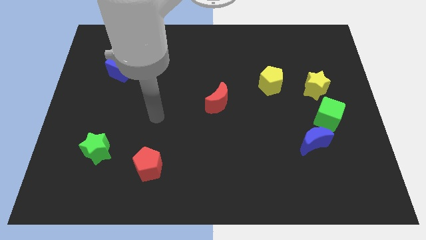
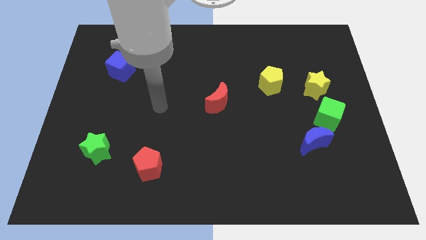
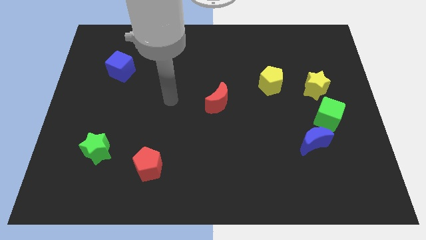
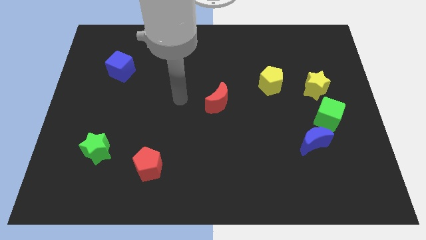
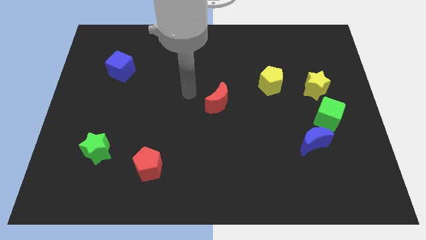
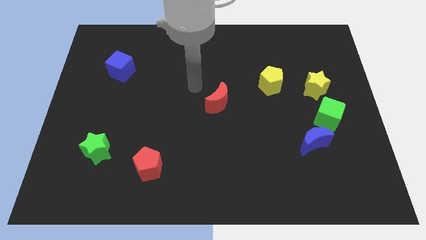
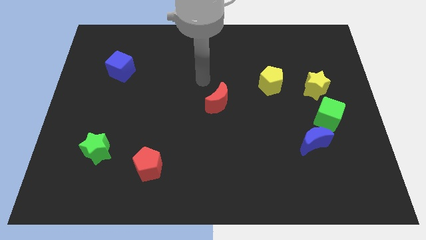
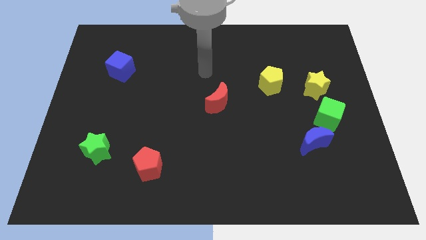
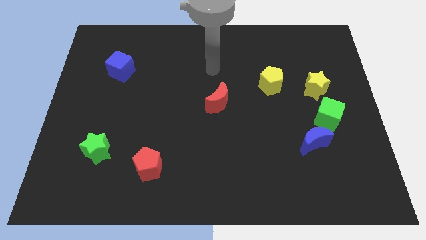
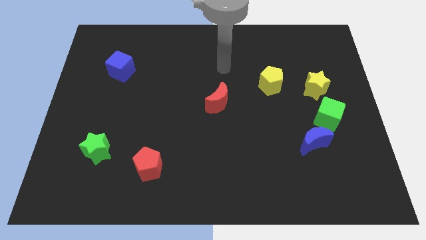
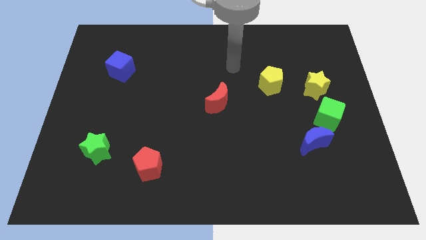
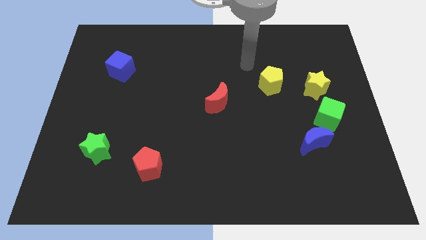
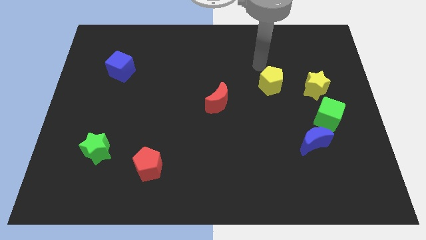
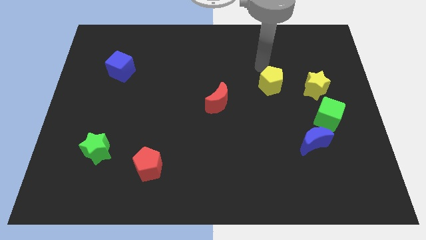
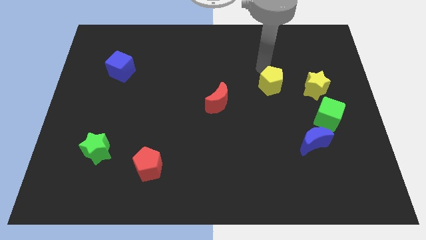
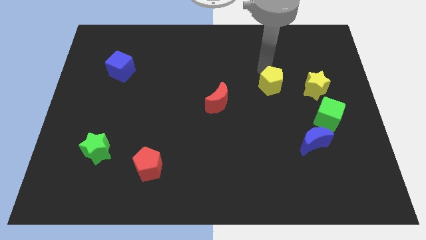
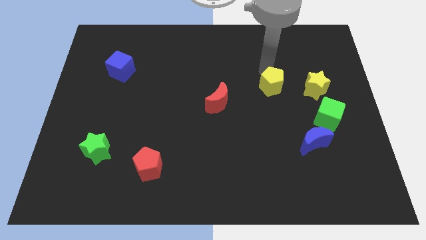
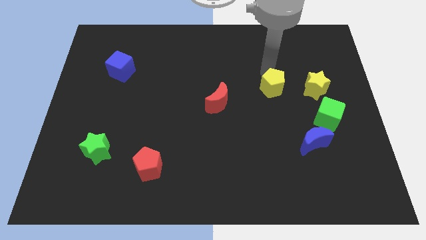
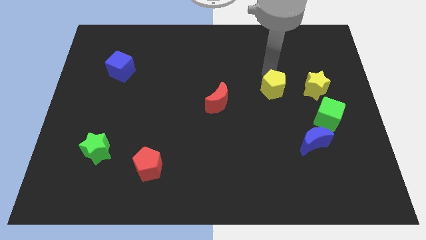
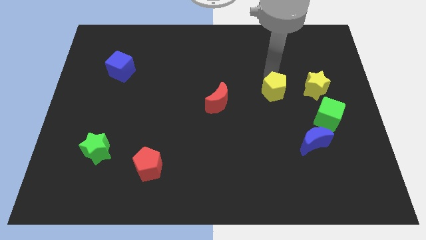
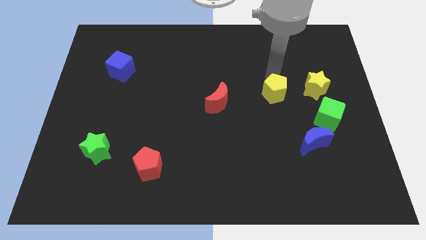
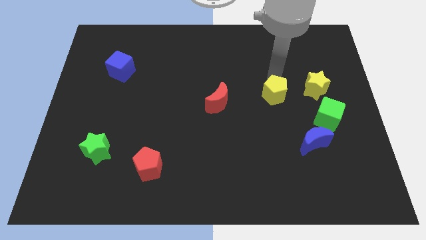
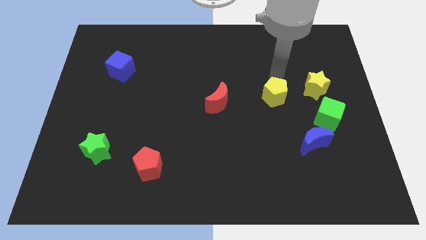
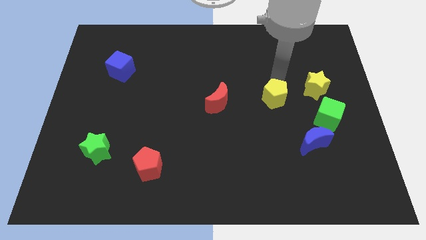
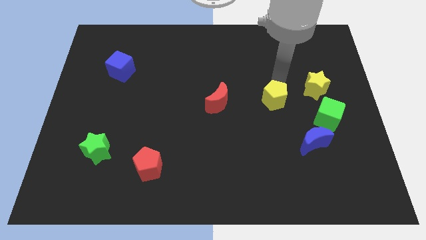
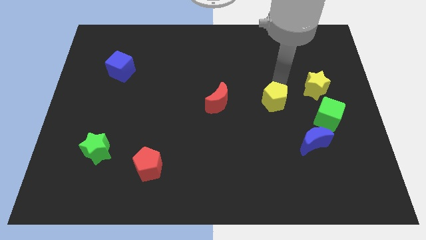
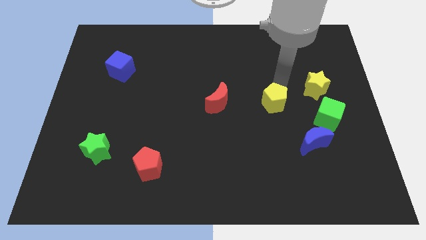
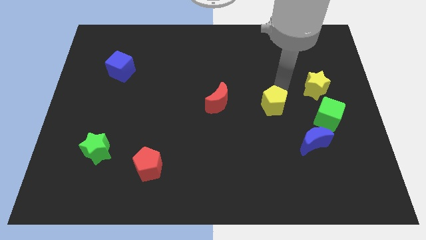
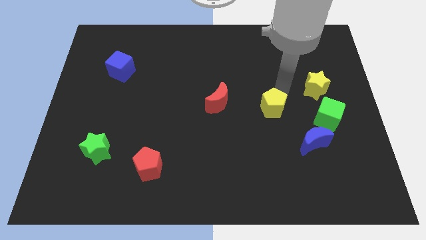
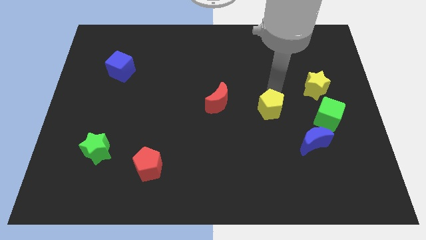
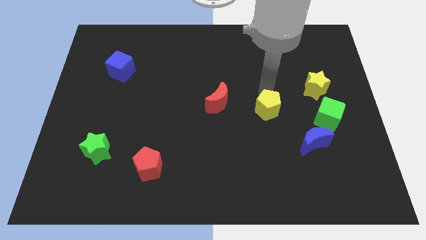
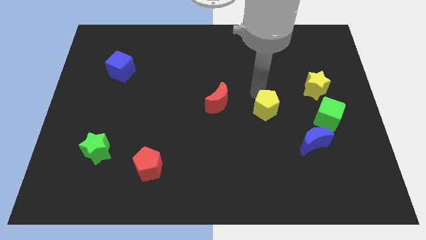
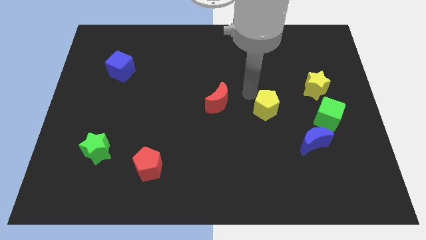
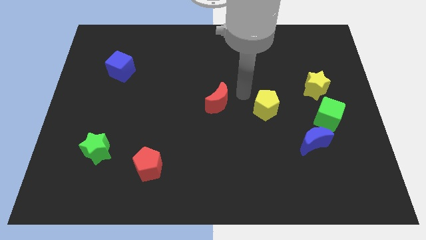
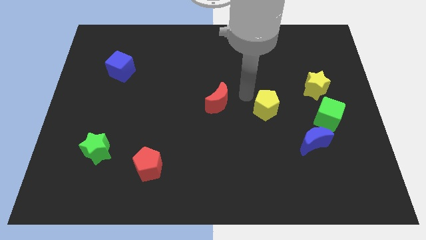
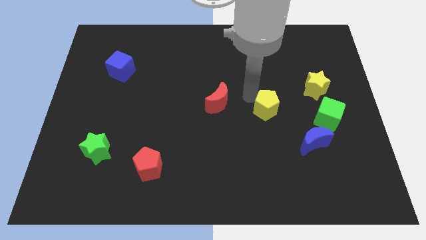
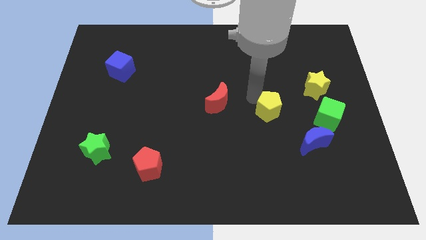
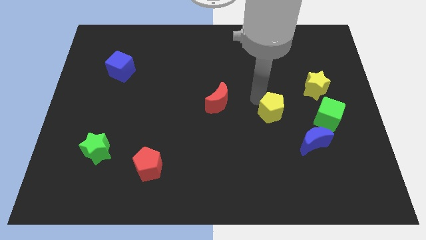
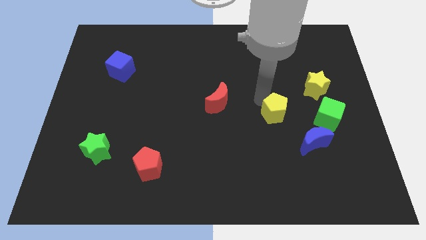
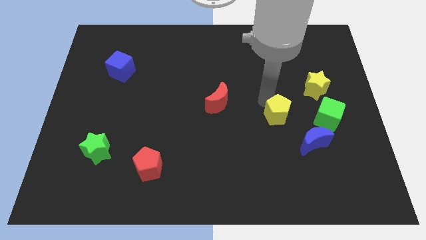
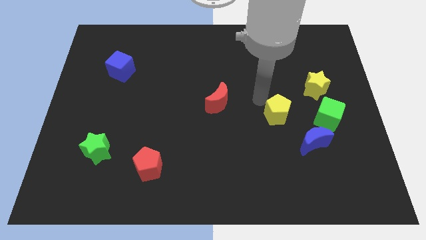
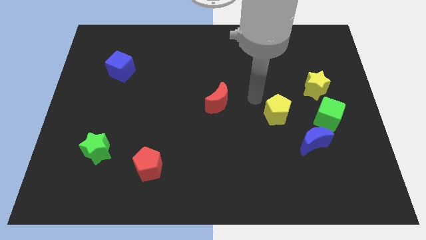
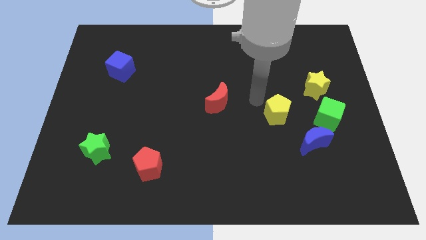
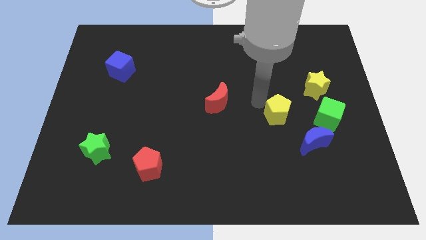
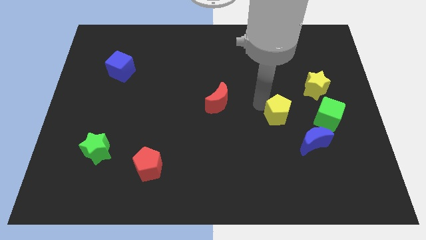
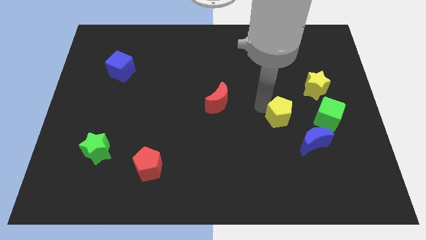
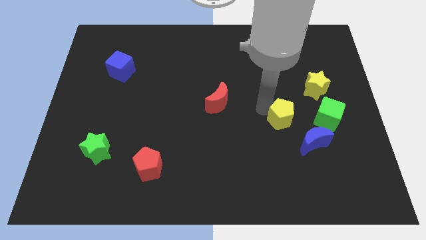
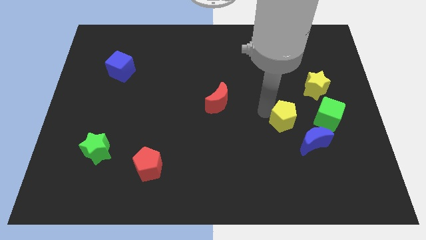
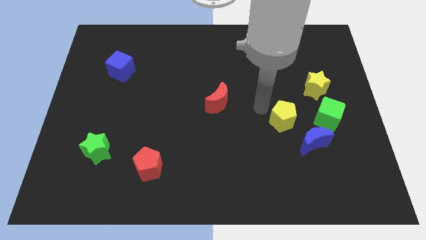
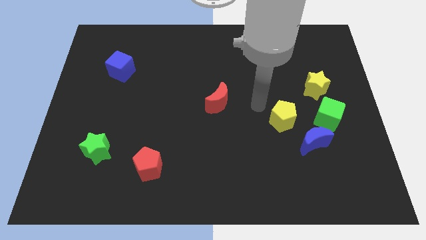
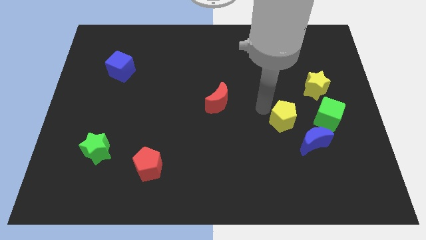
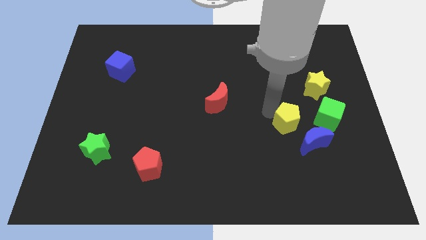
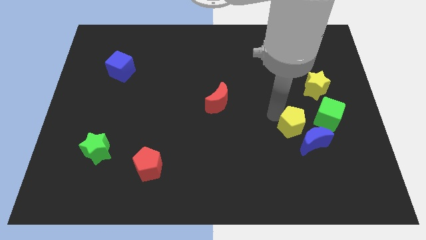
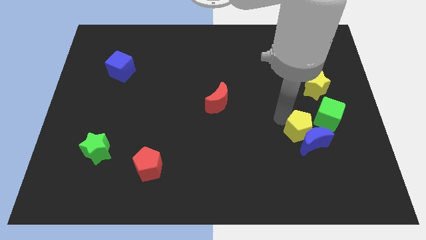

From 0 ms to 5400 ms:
push the yellow pentagon towards the blue moon

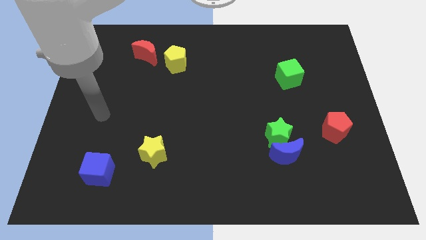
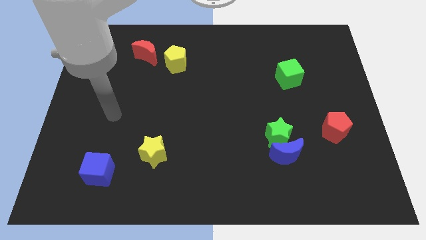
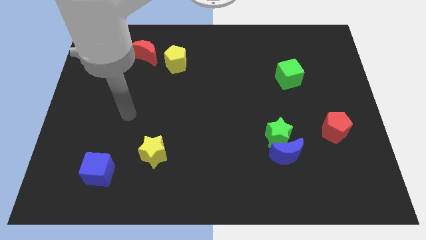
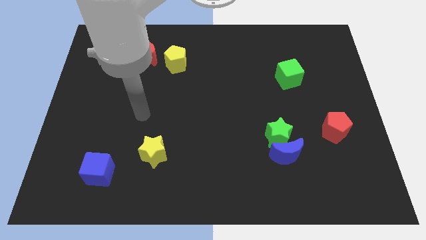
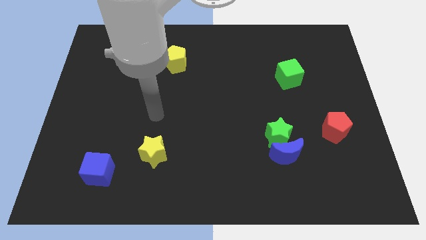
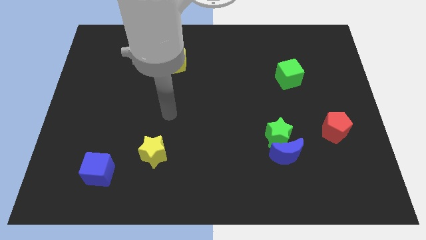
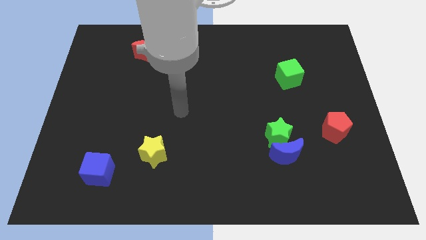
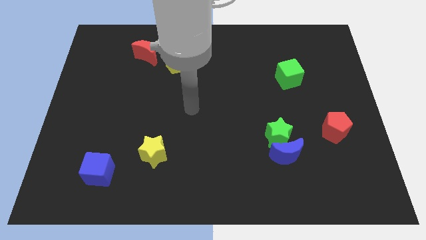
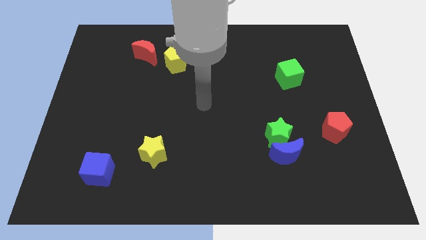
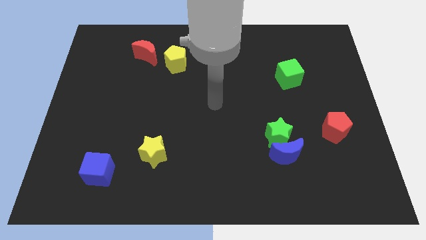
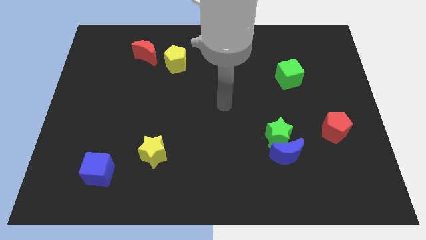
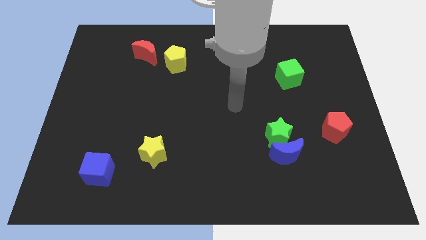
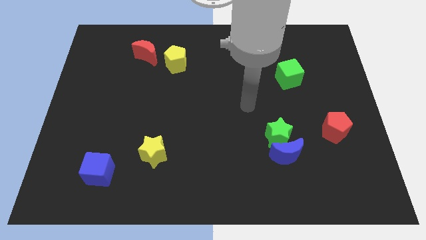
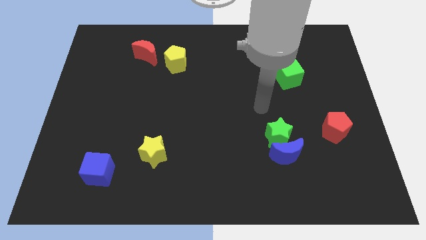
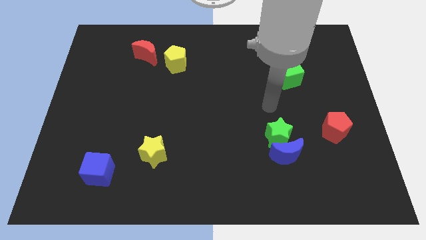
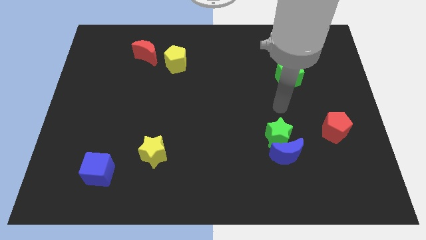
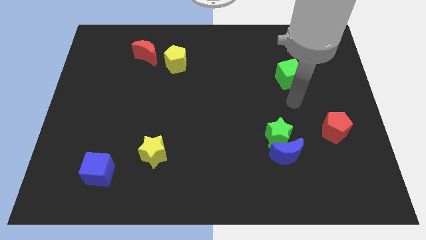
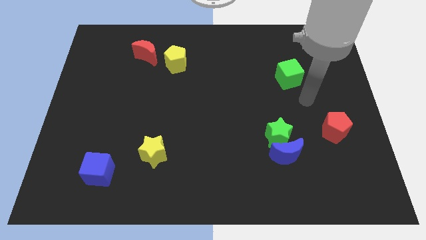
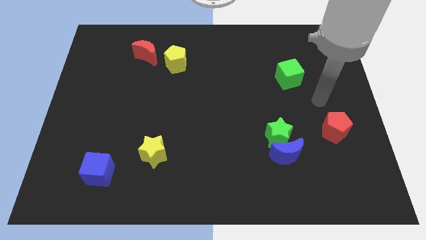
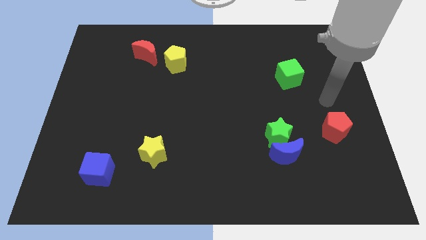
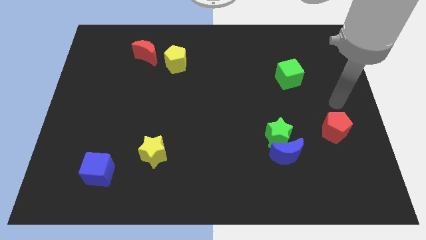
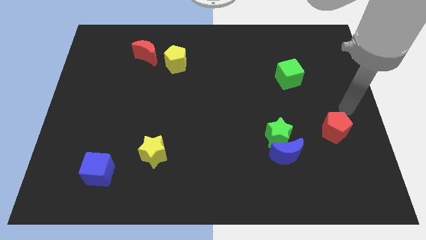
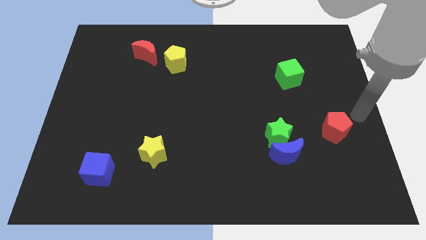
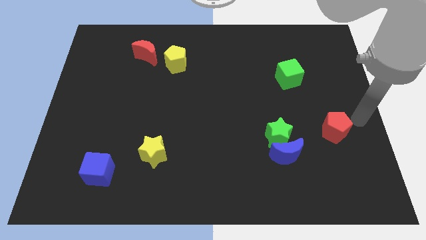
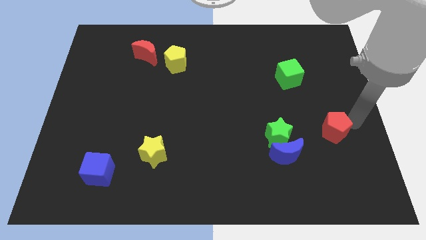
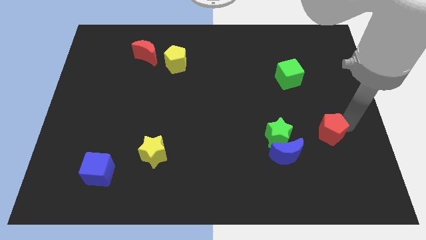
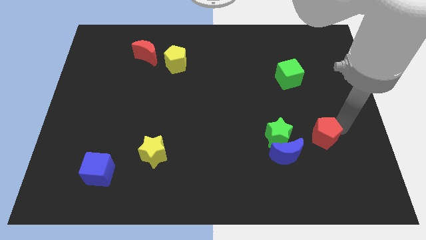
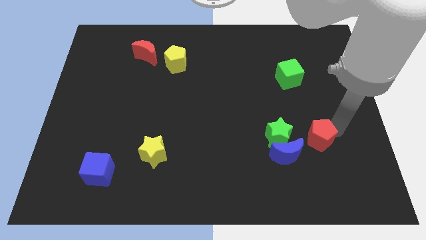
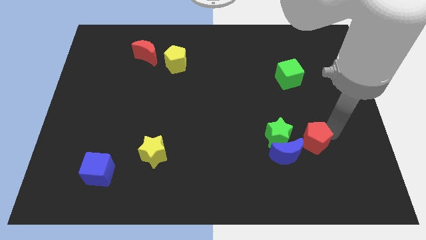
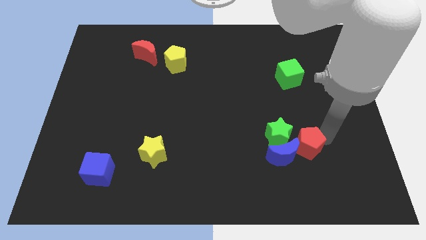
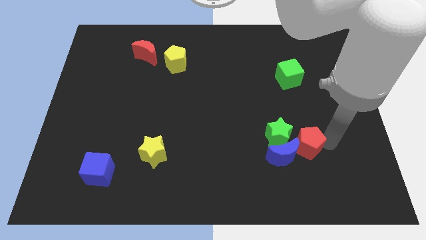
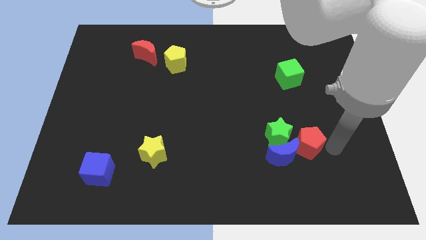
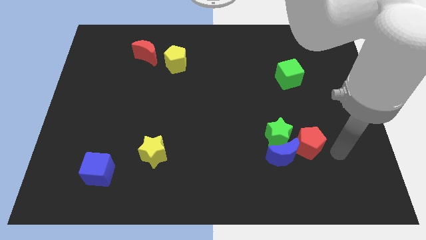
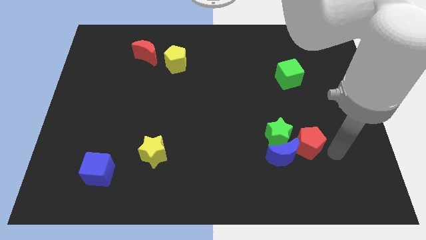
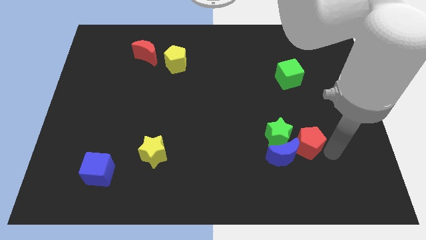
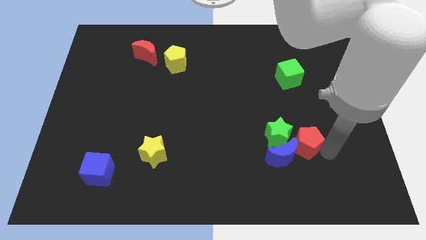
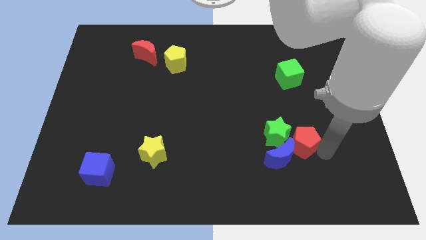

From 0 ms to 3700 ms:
slide the red pentagon next to the green star
